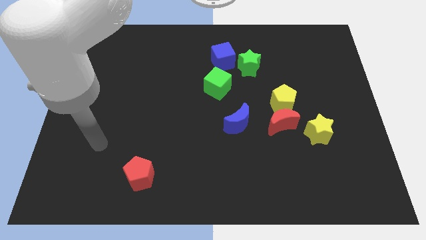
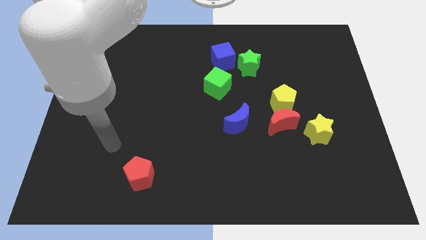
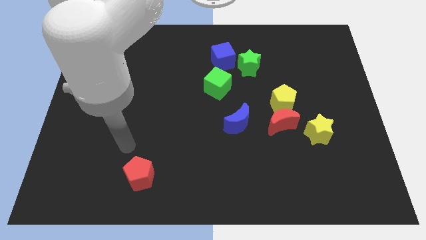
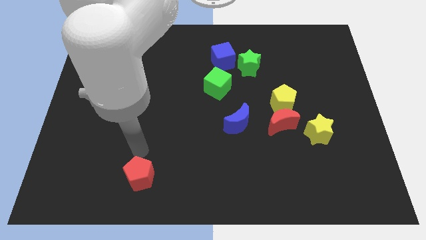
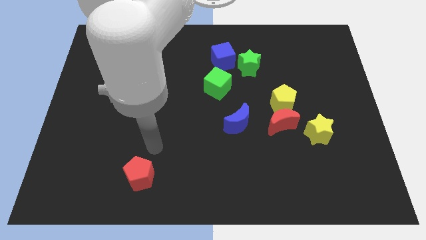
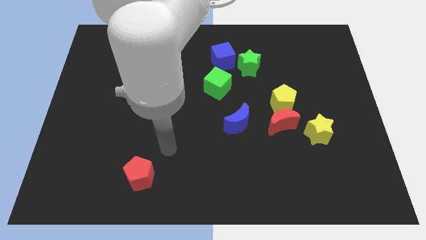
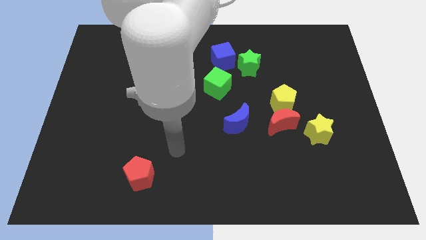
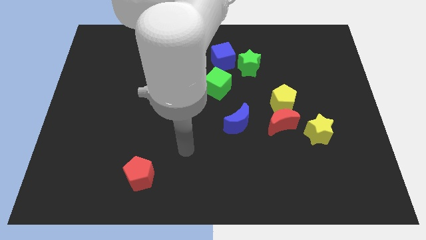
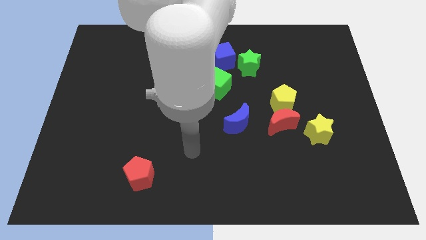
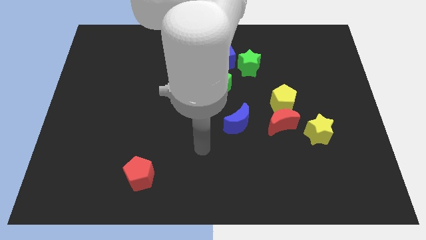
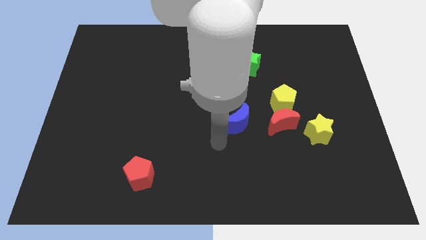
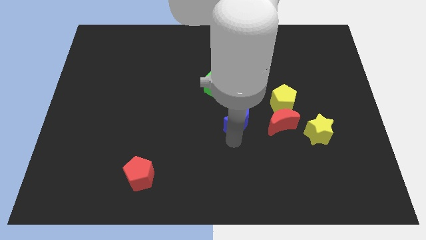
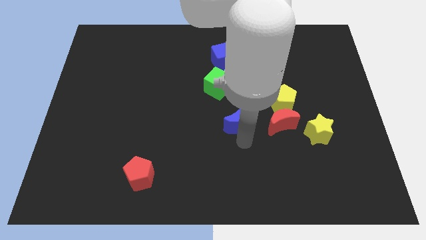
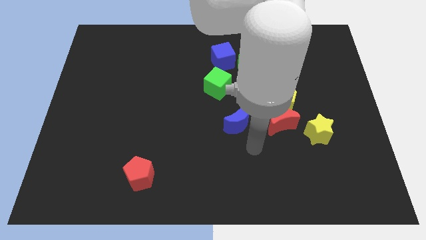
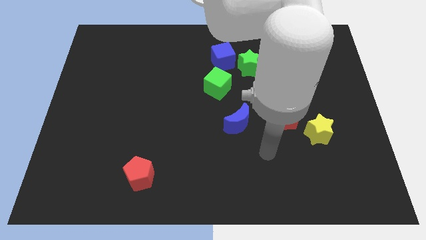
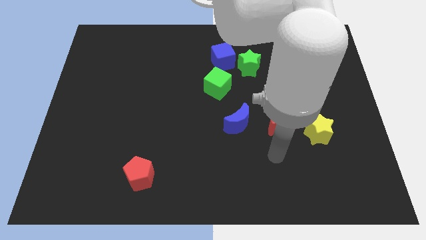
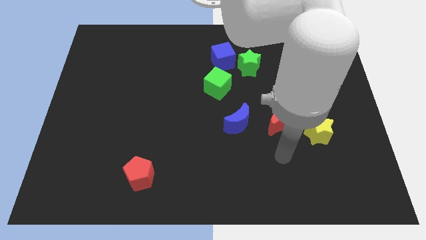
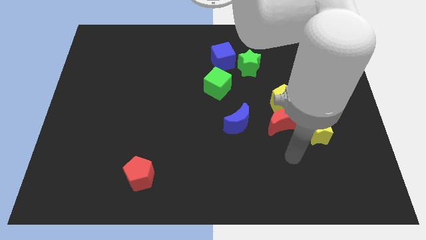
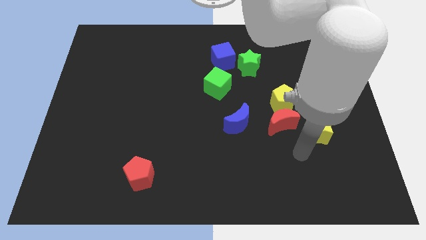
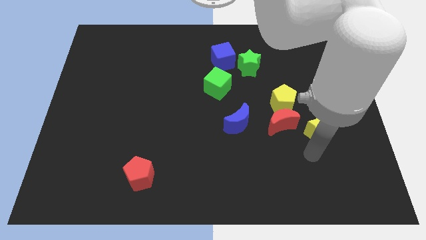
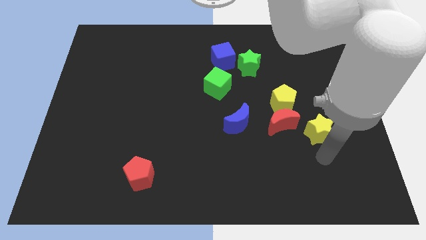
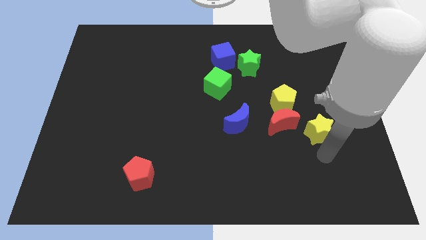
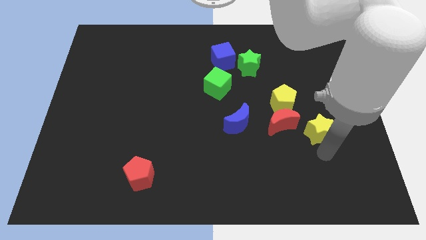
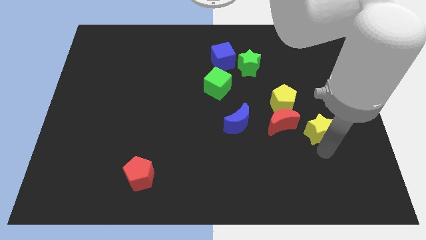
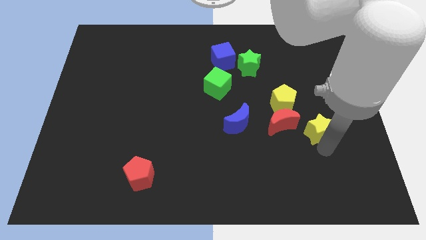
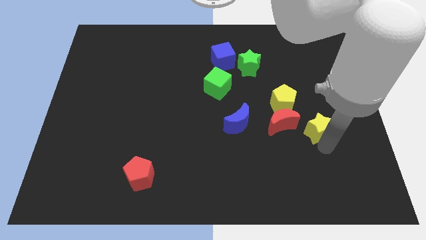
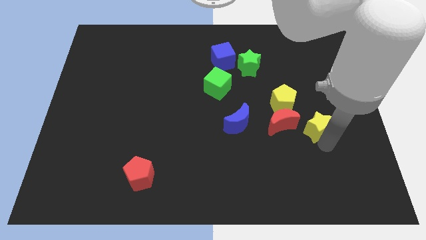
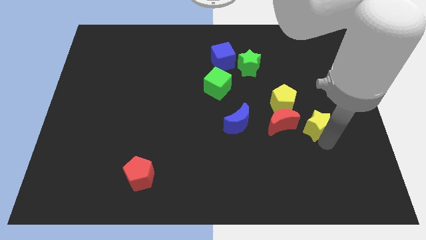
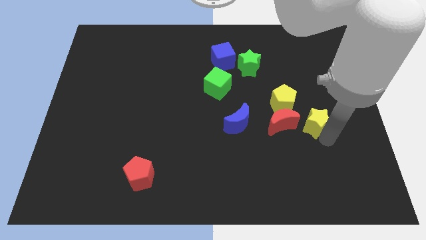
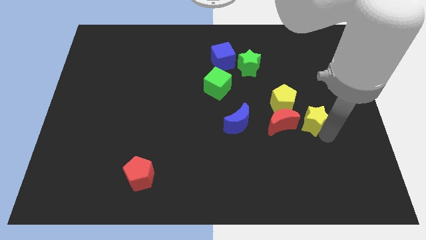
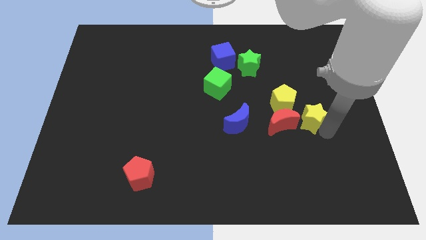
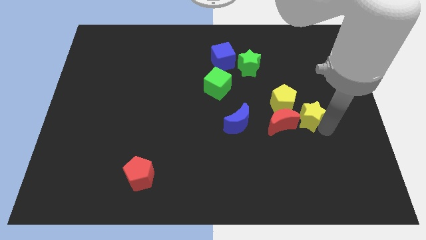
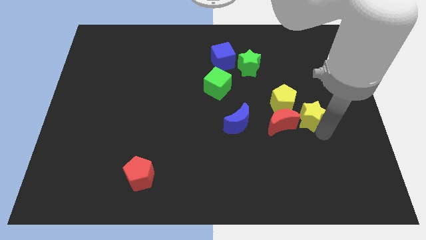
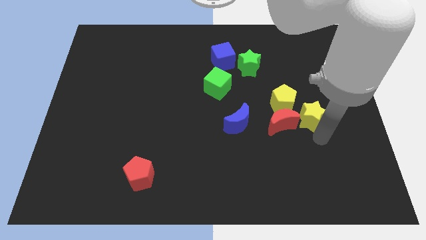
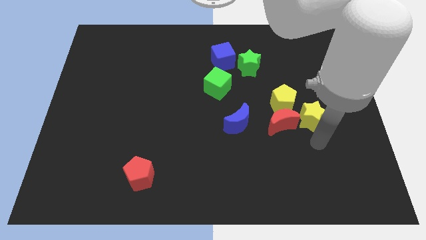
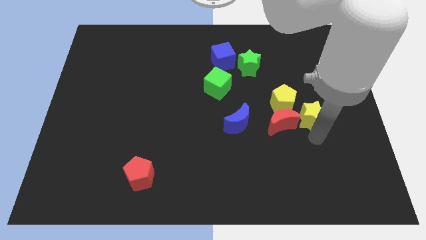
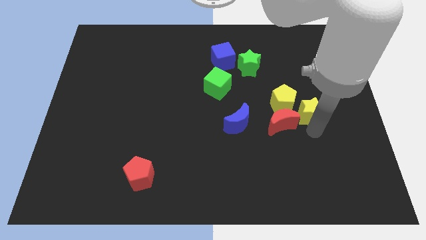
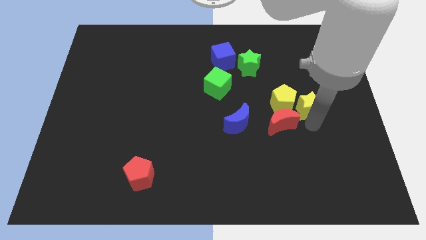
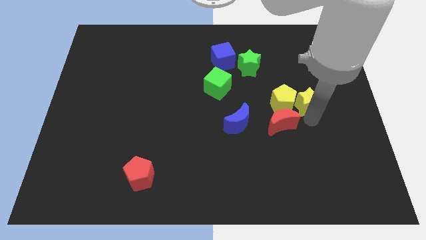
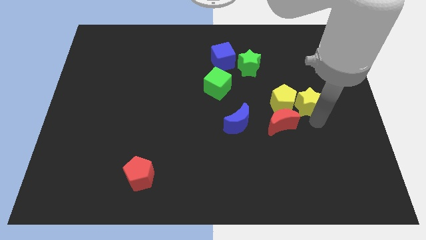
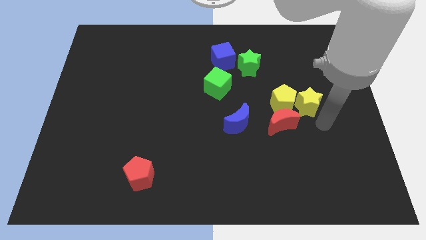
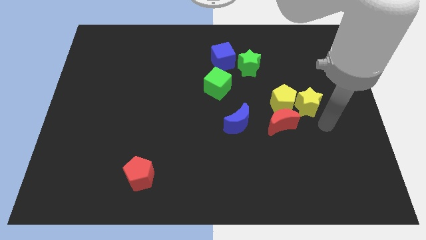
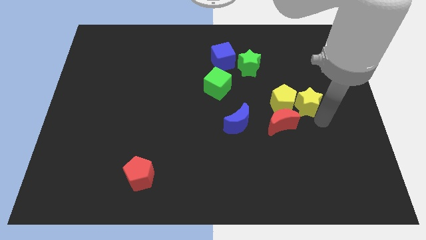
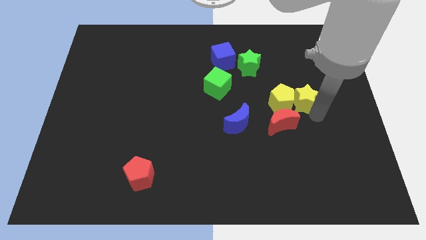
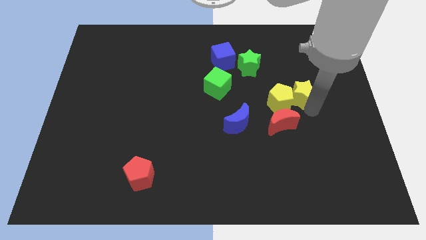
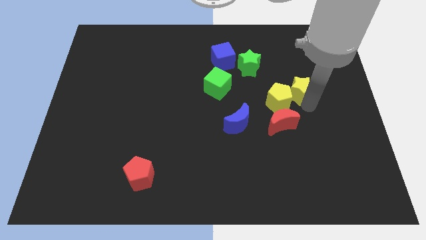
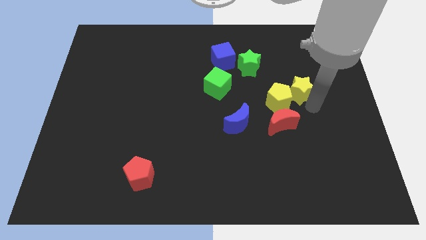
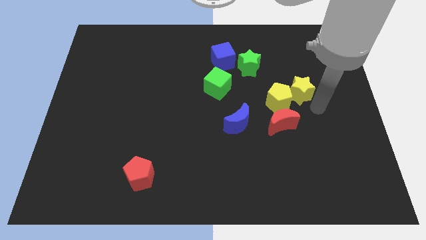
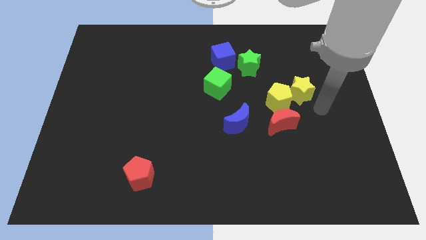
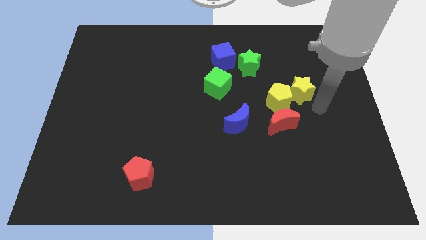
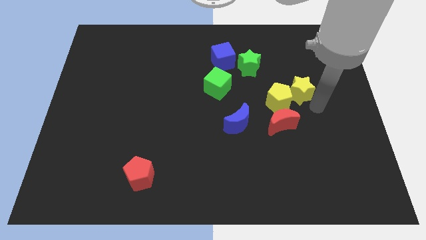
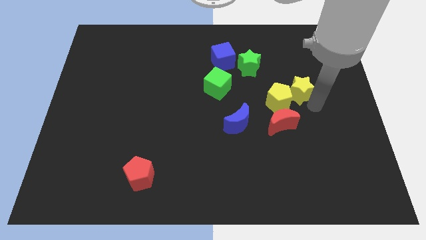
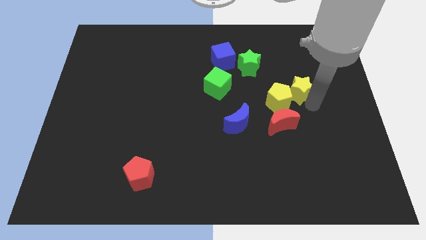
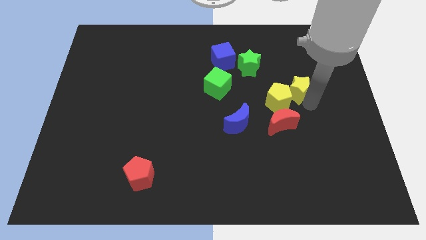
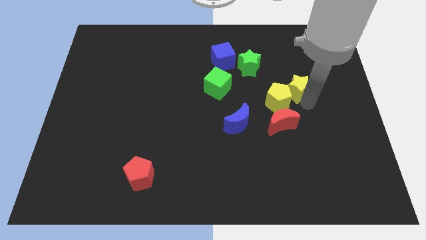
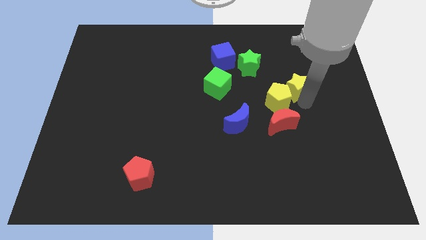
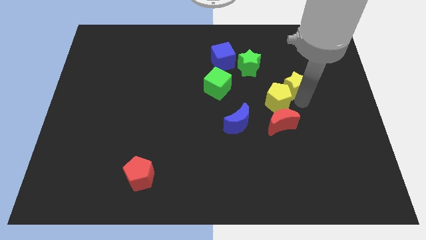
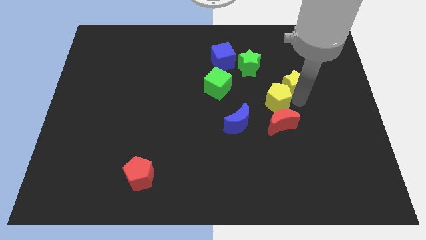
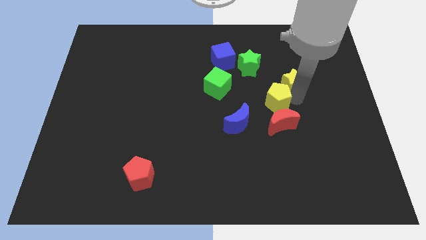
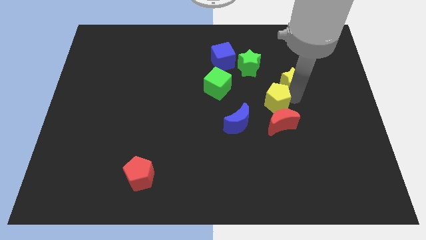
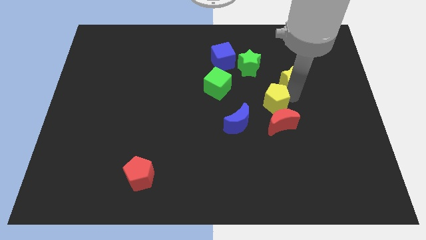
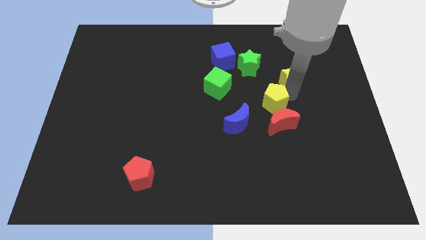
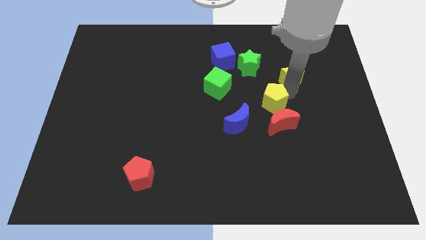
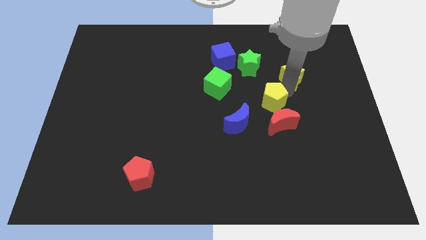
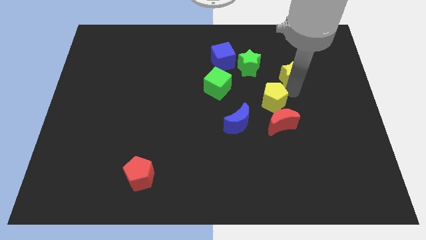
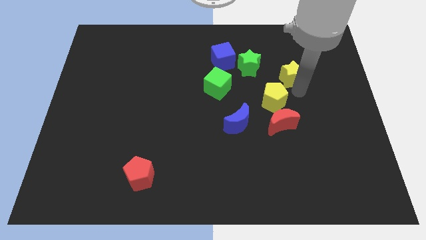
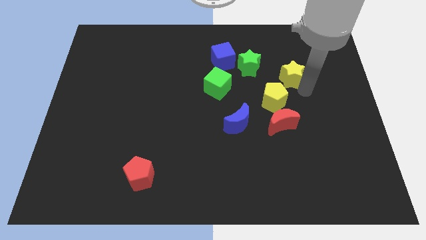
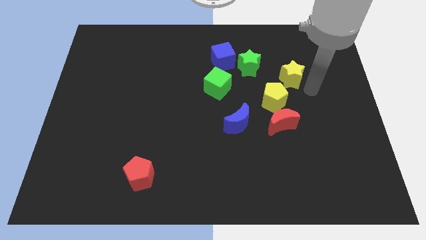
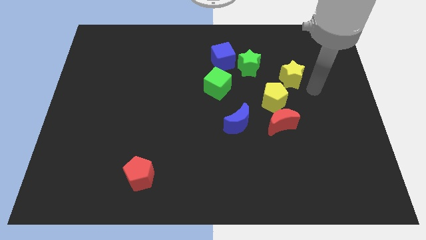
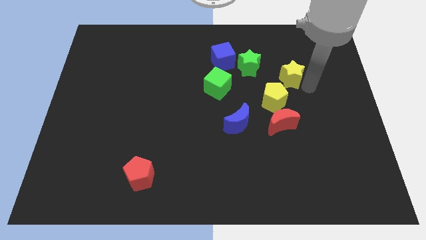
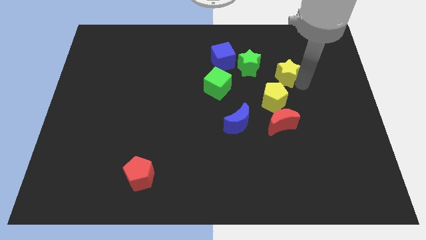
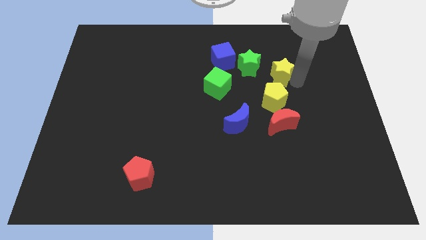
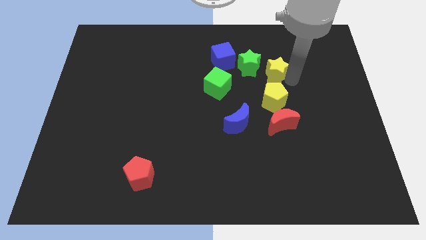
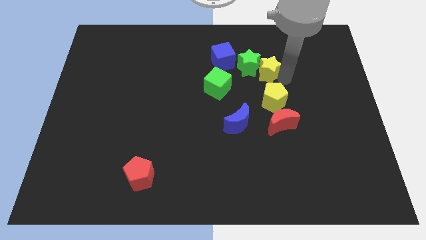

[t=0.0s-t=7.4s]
slide the yellow star to the right side of the blue cube
